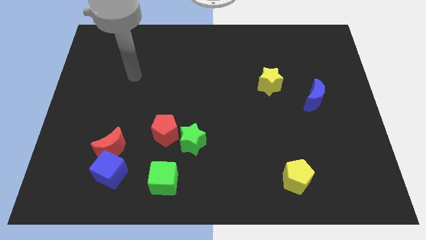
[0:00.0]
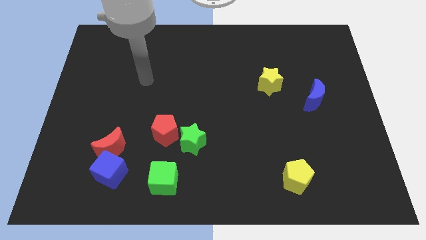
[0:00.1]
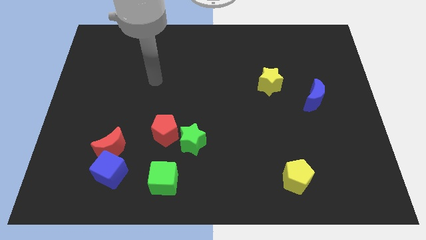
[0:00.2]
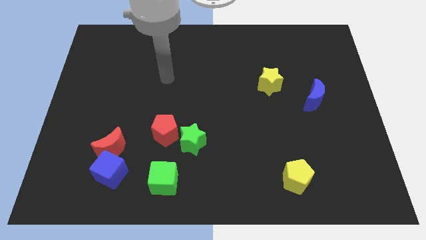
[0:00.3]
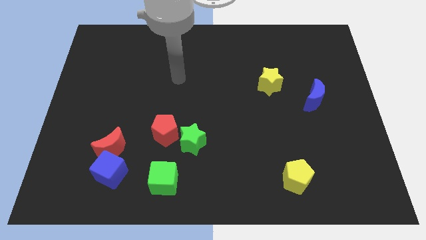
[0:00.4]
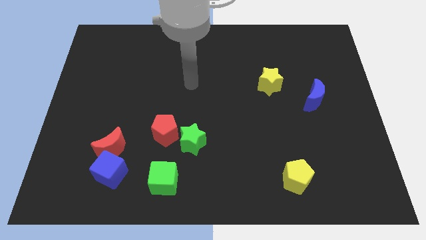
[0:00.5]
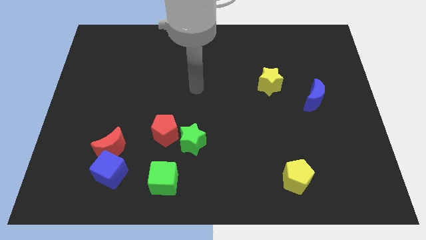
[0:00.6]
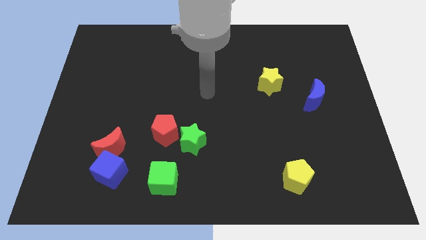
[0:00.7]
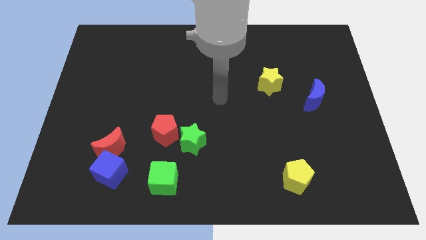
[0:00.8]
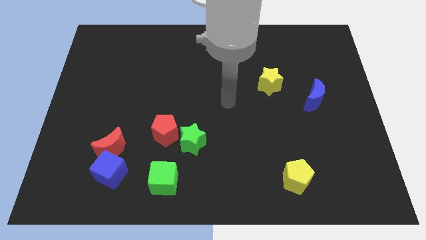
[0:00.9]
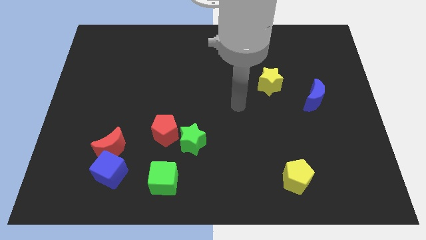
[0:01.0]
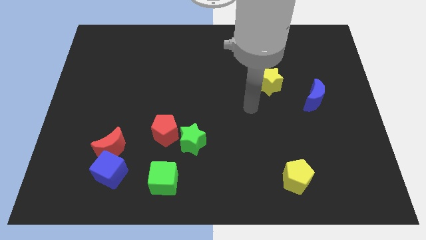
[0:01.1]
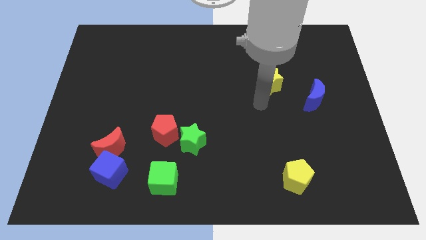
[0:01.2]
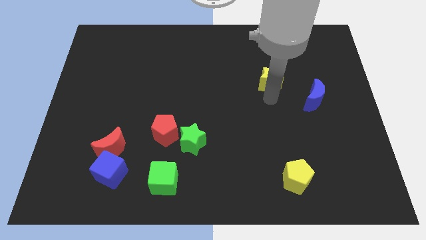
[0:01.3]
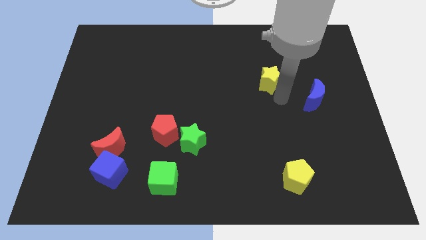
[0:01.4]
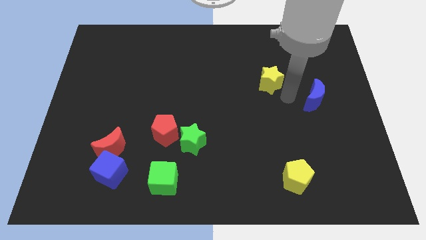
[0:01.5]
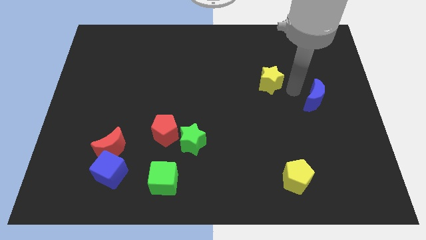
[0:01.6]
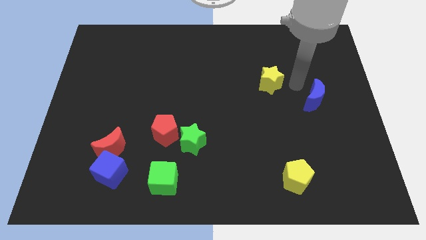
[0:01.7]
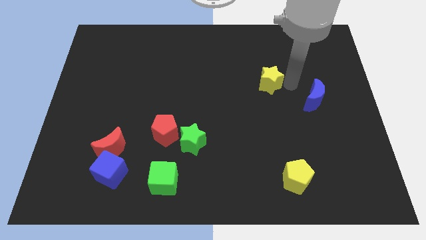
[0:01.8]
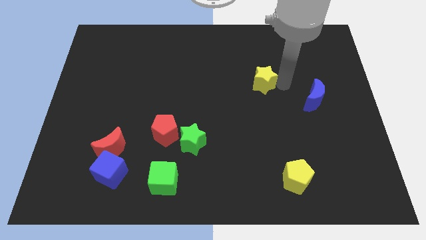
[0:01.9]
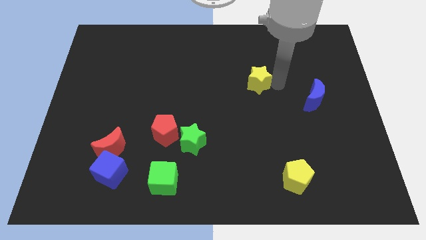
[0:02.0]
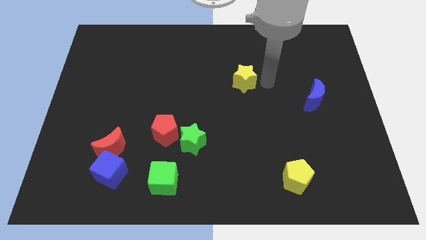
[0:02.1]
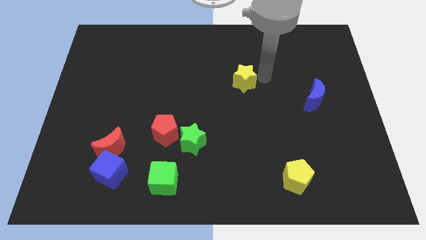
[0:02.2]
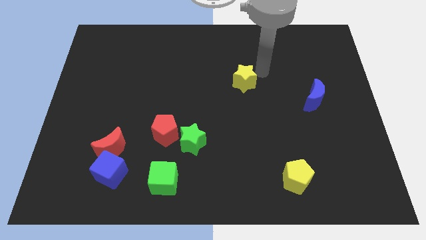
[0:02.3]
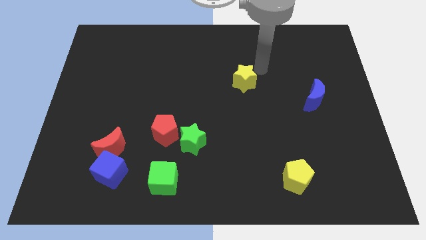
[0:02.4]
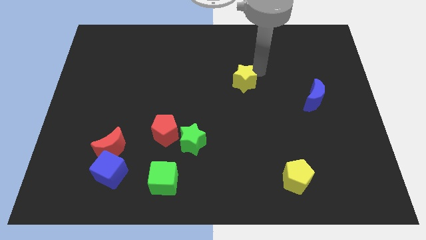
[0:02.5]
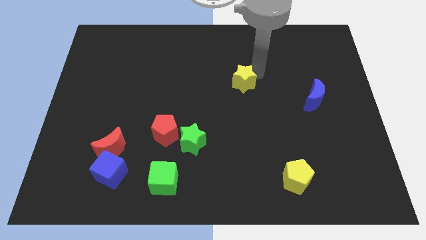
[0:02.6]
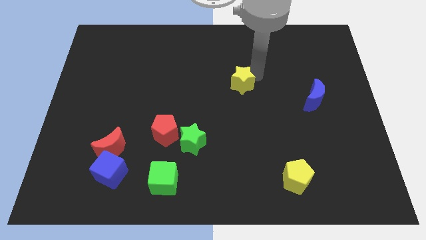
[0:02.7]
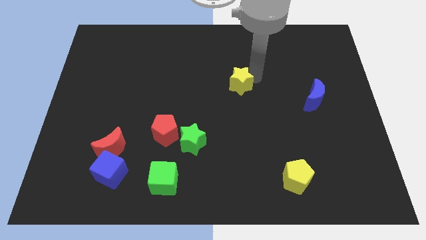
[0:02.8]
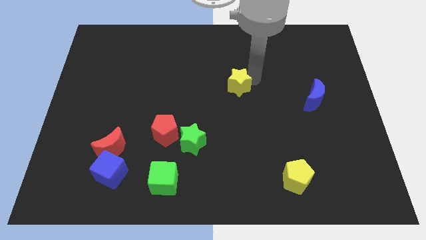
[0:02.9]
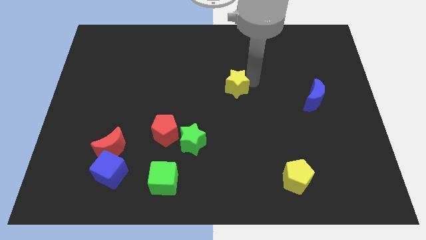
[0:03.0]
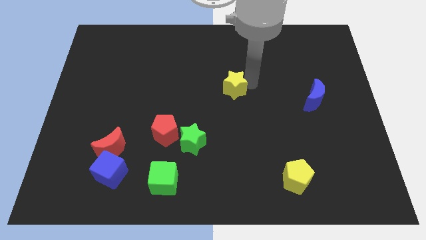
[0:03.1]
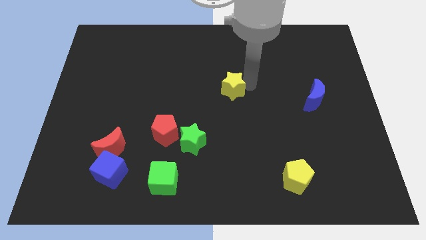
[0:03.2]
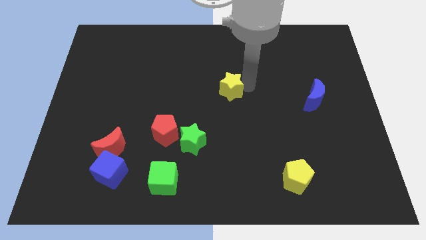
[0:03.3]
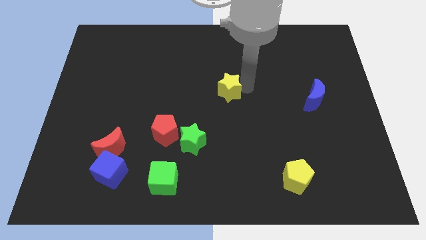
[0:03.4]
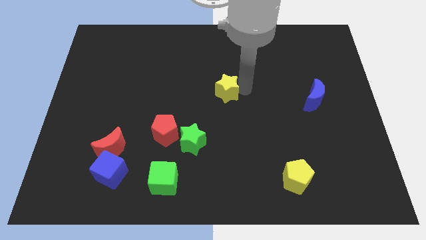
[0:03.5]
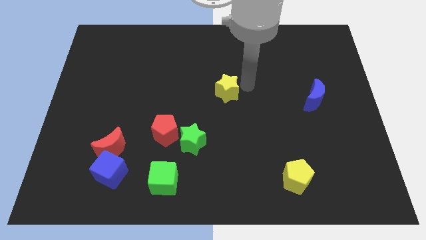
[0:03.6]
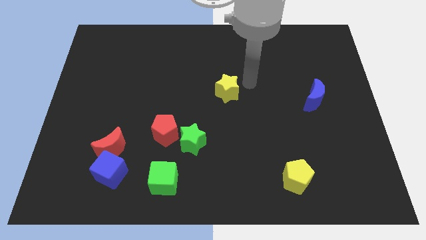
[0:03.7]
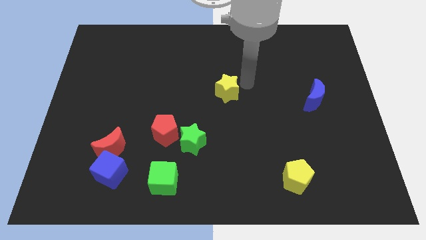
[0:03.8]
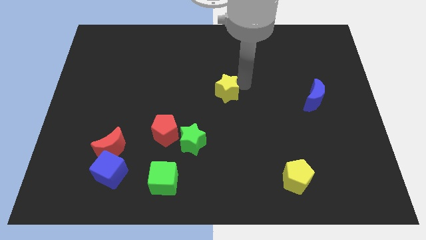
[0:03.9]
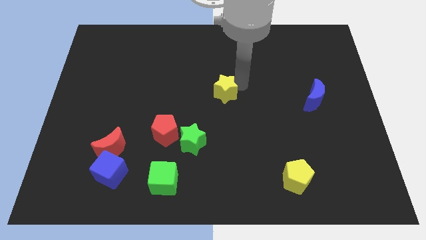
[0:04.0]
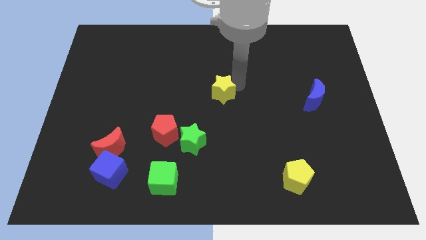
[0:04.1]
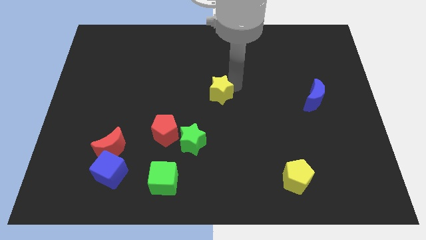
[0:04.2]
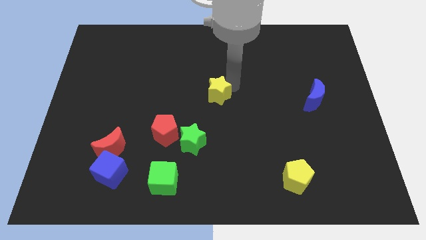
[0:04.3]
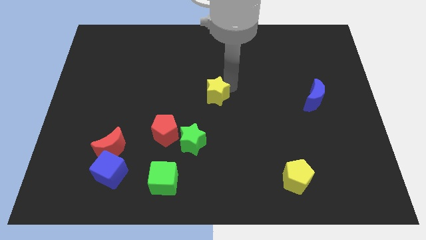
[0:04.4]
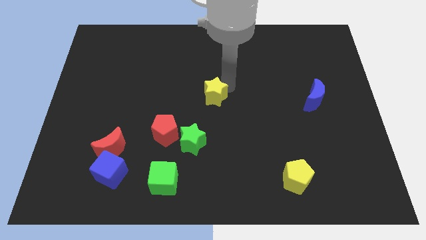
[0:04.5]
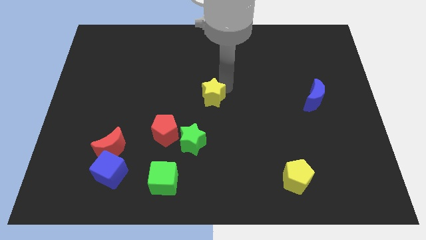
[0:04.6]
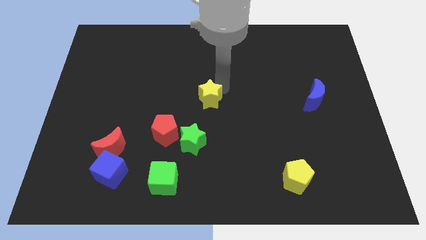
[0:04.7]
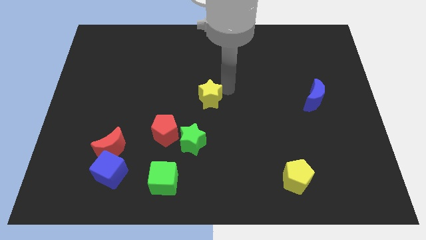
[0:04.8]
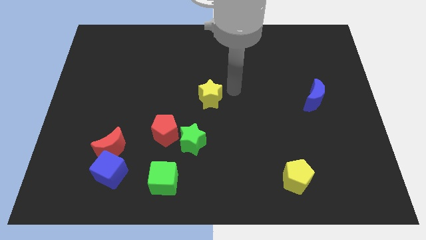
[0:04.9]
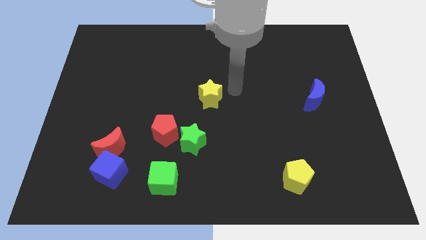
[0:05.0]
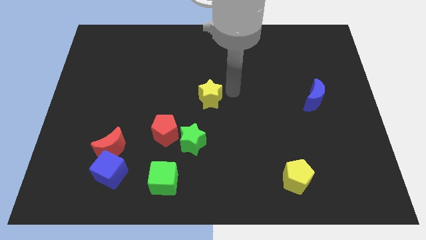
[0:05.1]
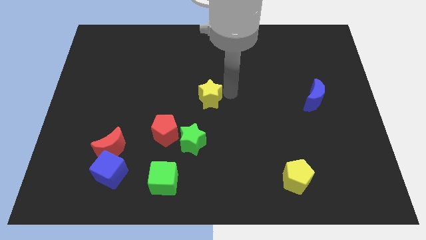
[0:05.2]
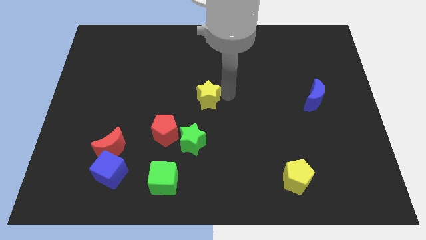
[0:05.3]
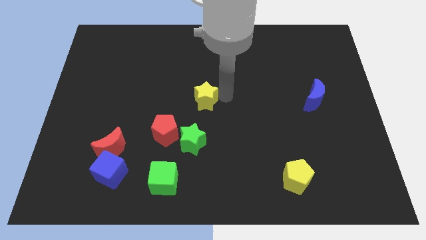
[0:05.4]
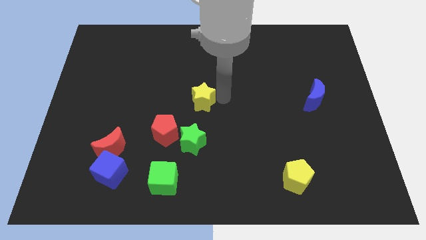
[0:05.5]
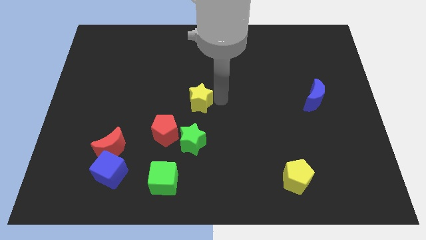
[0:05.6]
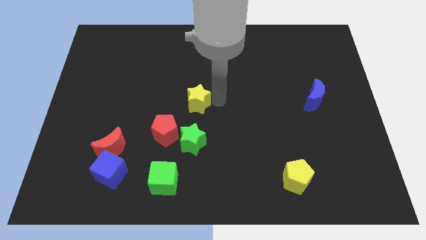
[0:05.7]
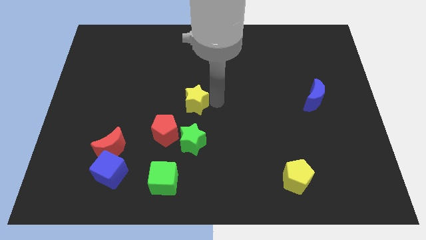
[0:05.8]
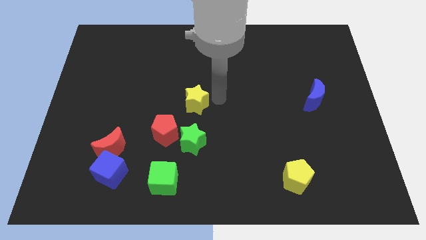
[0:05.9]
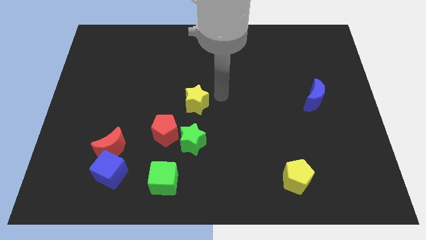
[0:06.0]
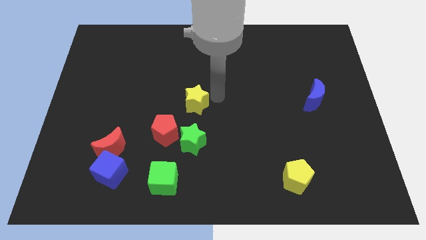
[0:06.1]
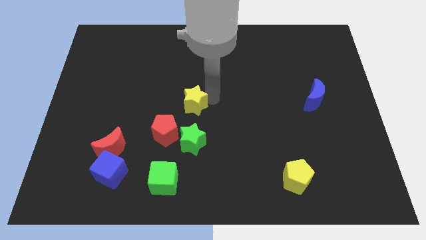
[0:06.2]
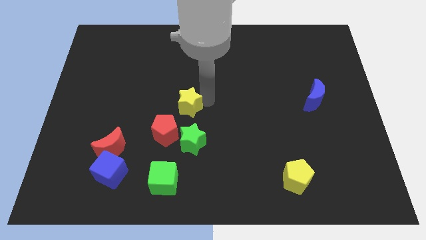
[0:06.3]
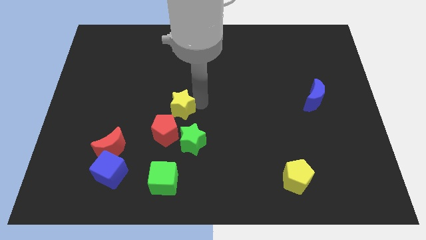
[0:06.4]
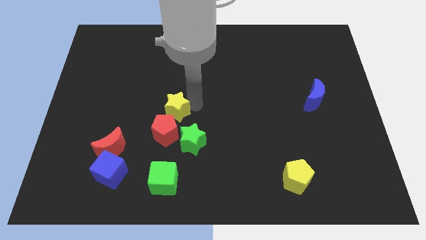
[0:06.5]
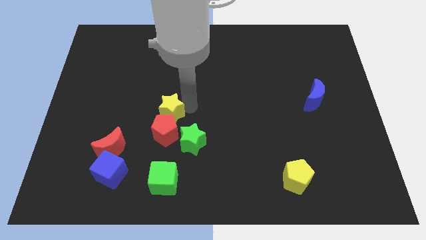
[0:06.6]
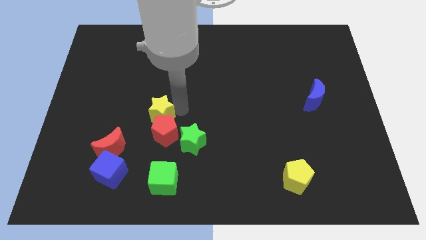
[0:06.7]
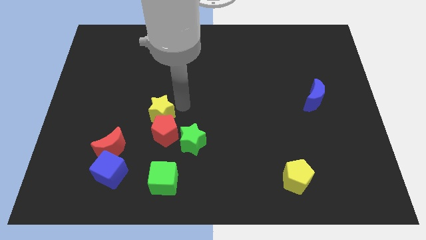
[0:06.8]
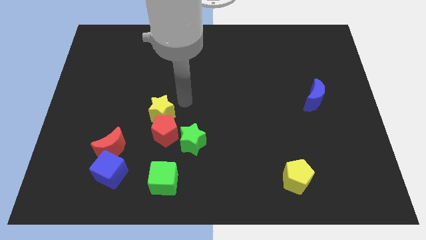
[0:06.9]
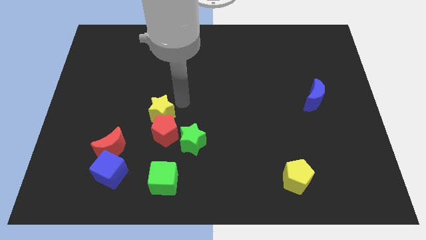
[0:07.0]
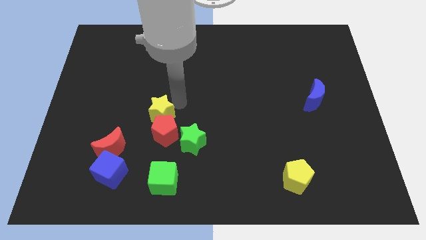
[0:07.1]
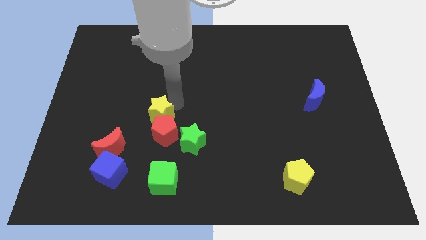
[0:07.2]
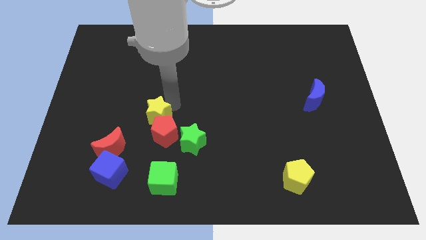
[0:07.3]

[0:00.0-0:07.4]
move the yellow star to the top right of the red moon

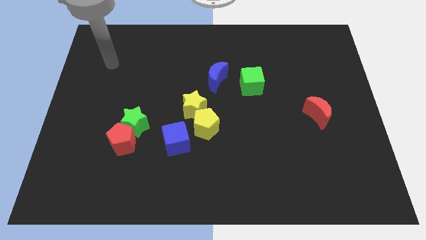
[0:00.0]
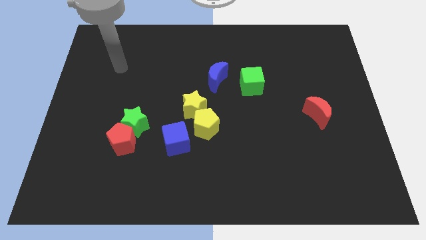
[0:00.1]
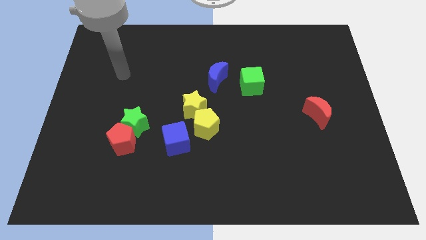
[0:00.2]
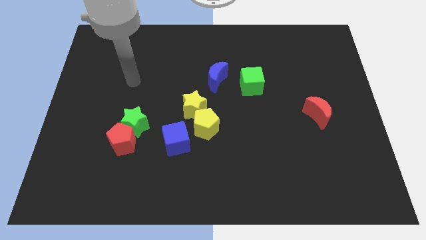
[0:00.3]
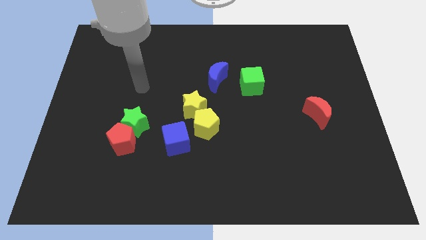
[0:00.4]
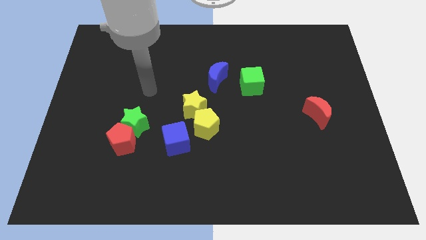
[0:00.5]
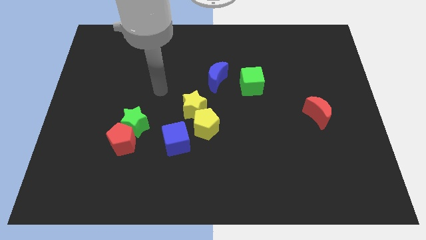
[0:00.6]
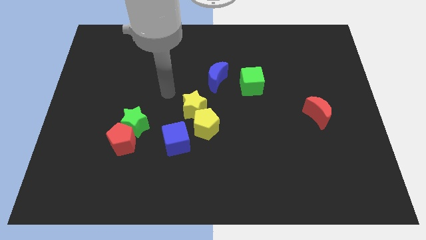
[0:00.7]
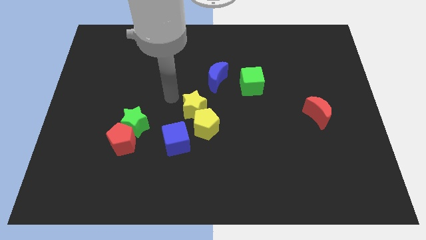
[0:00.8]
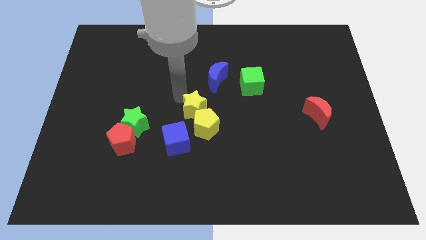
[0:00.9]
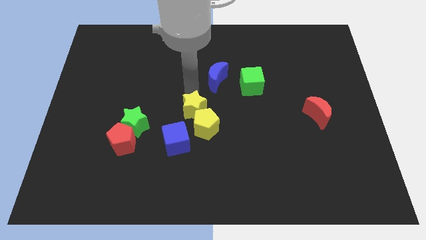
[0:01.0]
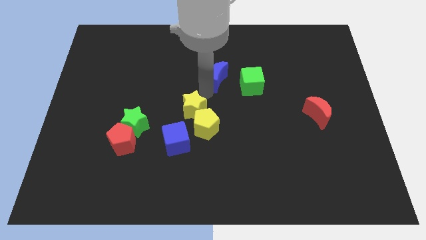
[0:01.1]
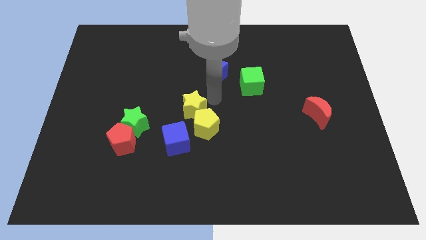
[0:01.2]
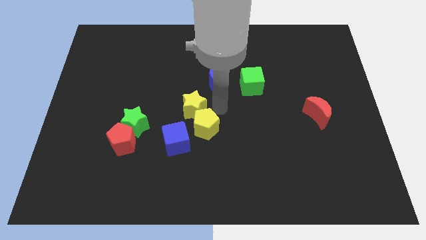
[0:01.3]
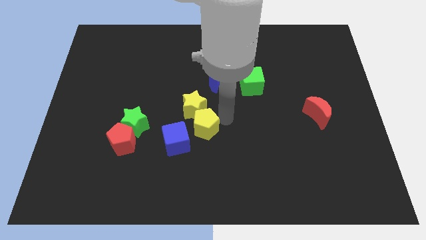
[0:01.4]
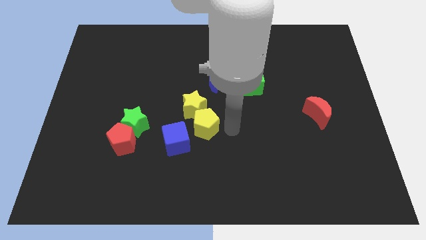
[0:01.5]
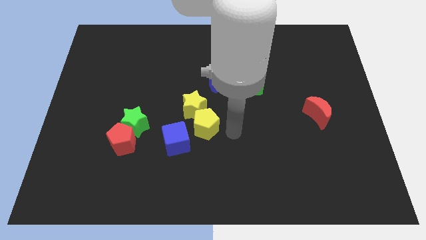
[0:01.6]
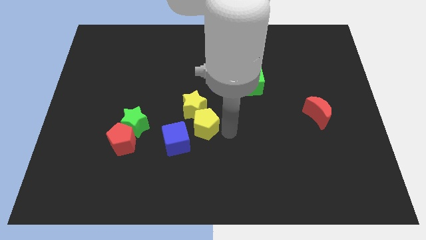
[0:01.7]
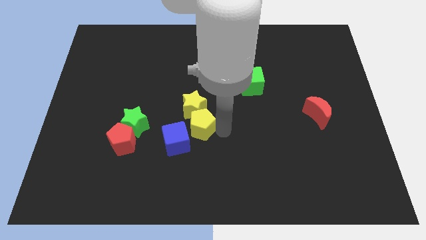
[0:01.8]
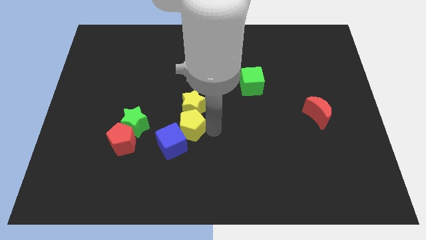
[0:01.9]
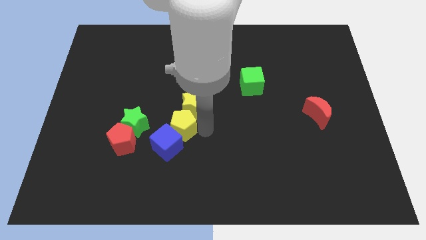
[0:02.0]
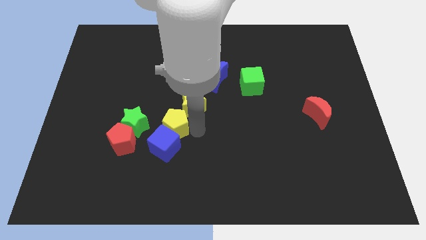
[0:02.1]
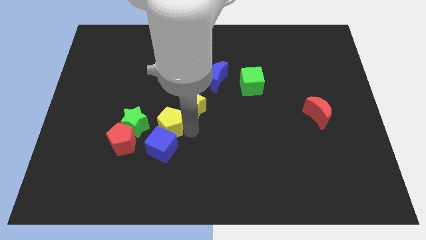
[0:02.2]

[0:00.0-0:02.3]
slide the yellow pentagon left of the yellow star
